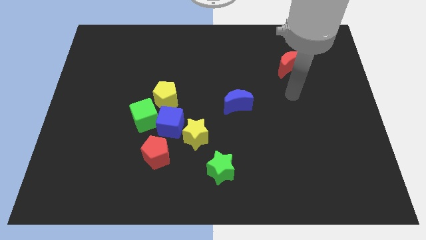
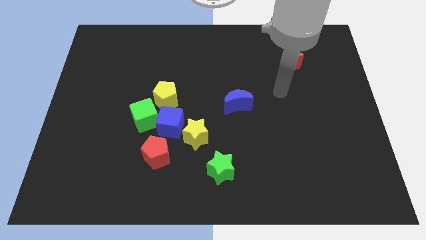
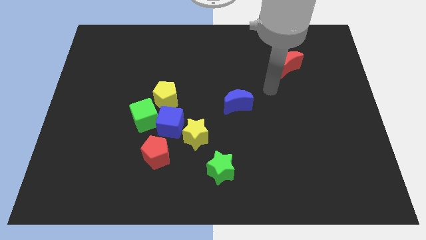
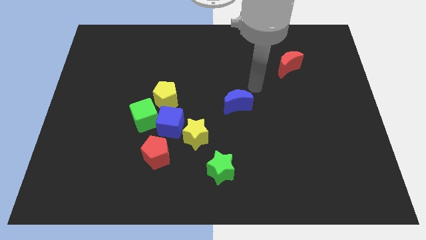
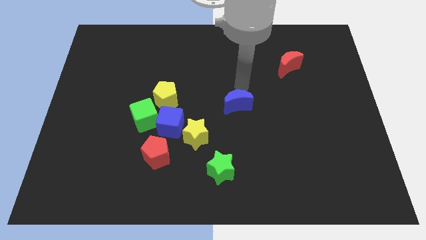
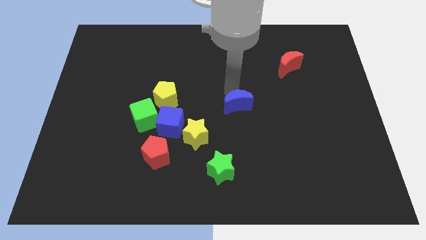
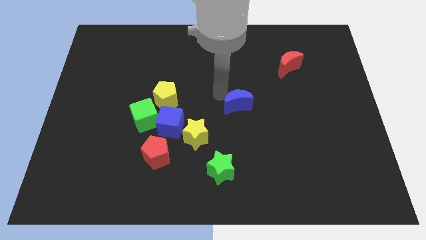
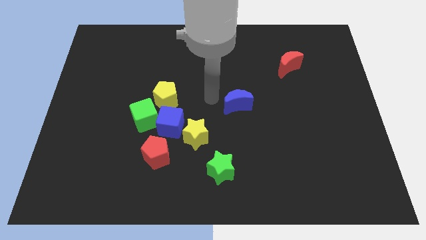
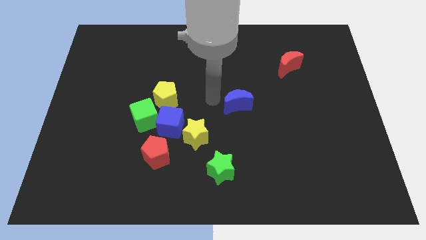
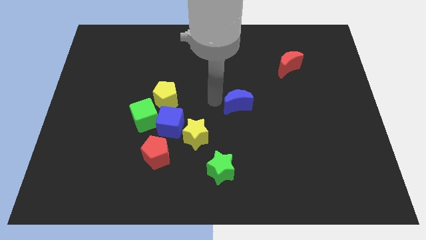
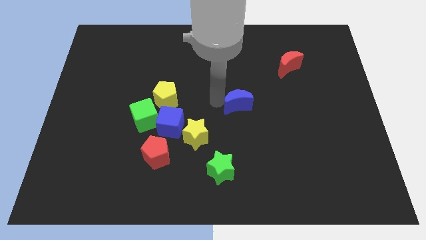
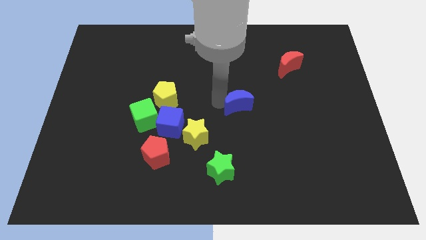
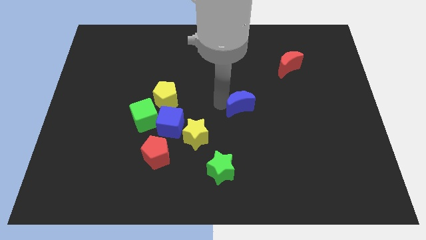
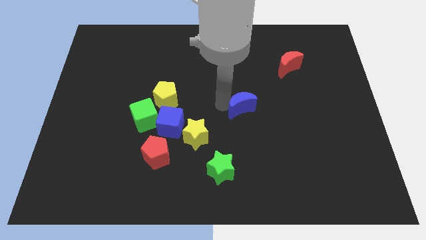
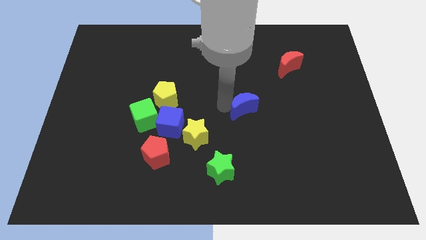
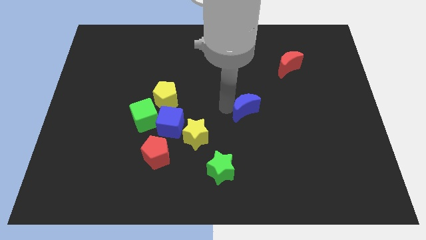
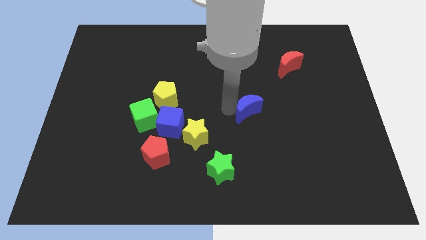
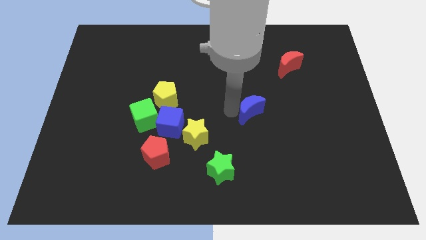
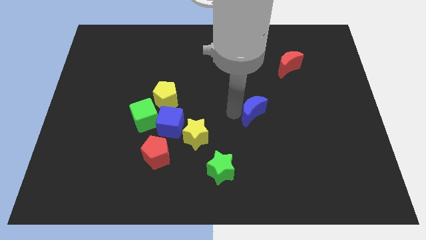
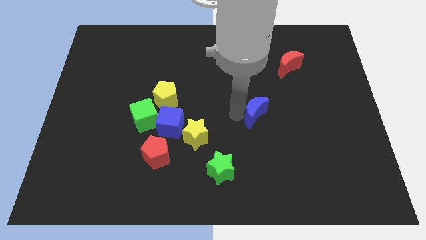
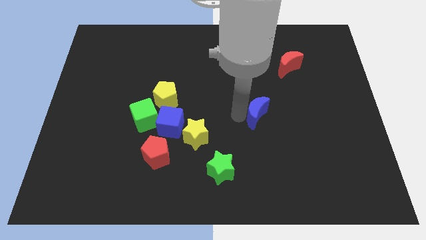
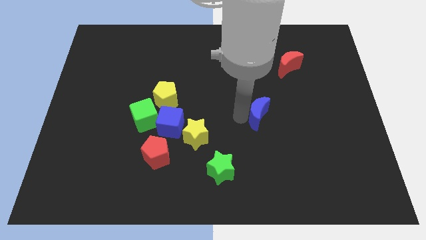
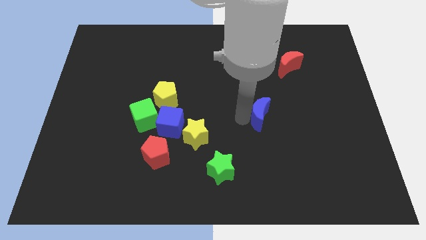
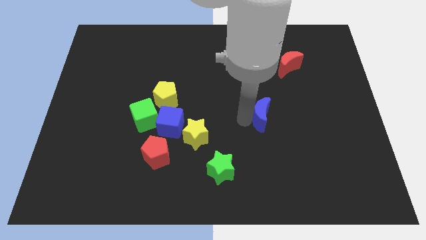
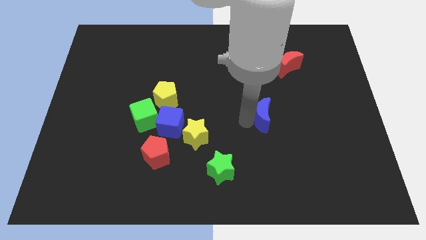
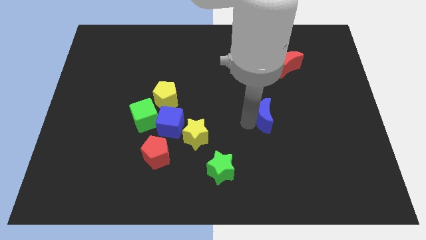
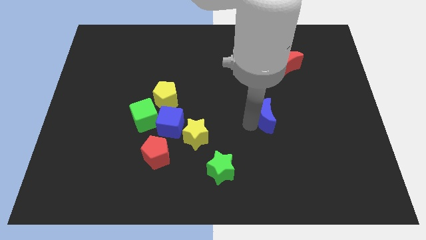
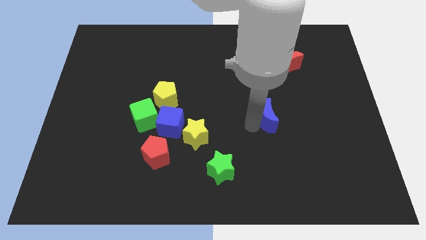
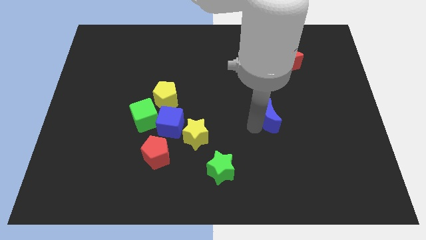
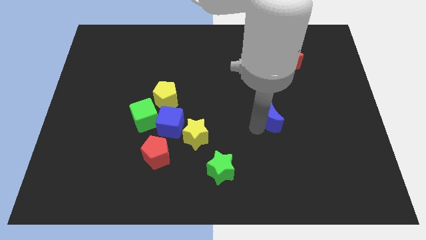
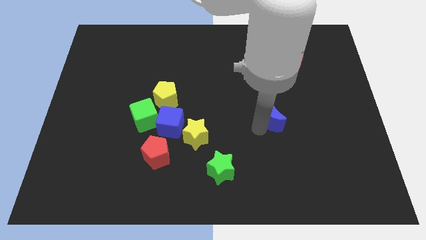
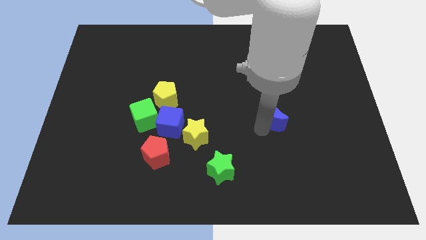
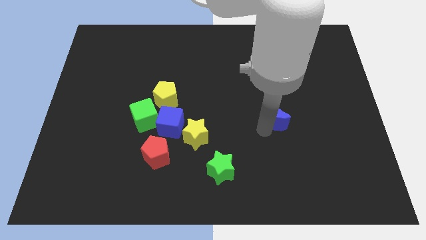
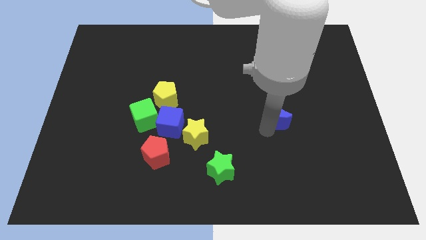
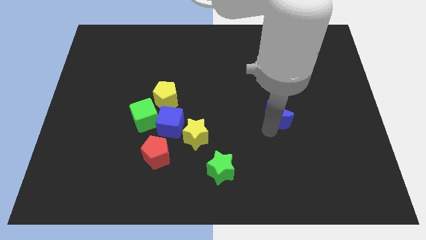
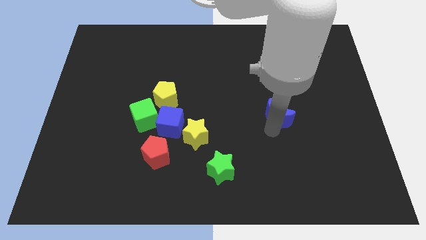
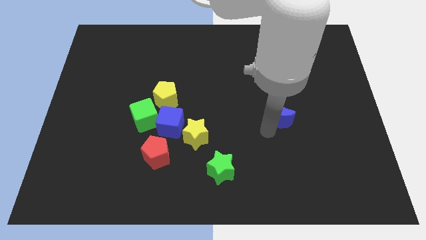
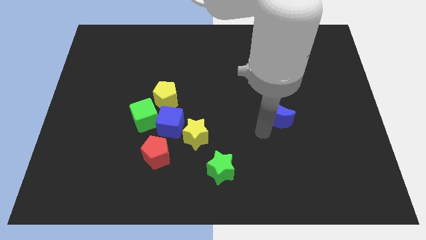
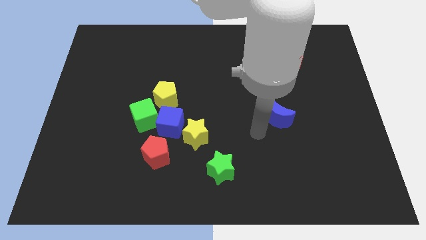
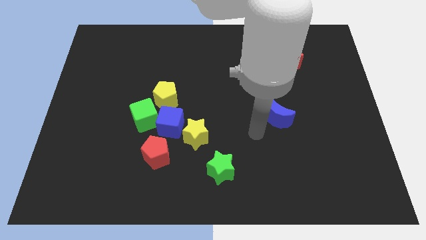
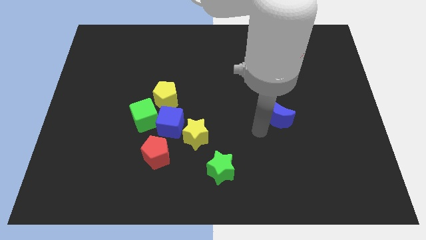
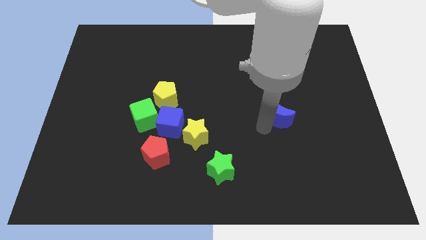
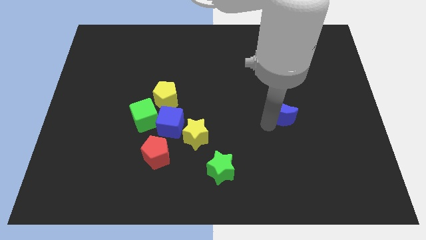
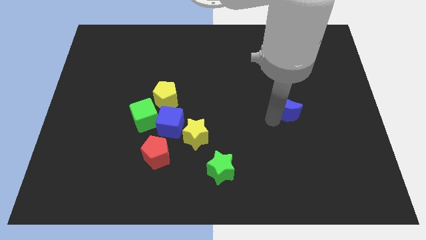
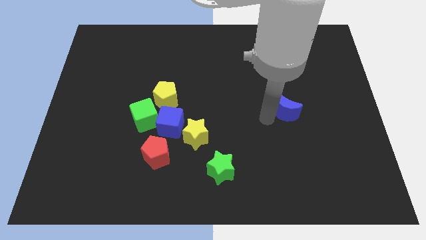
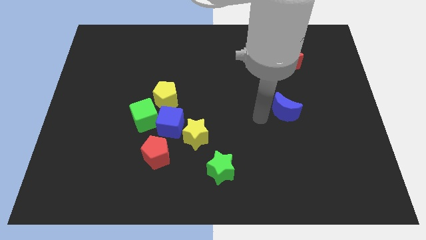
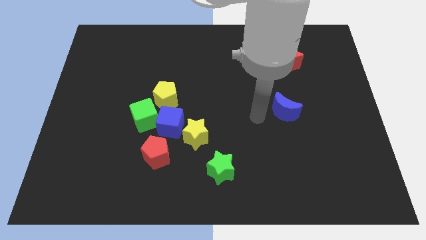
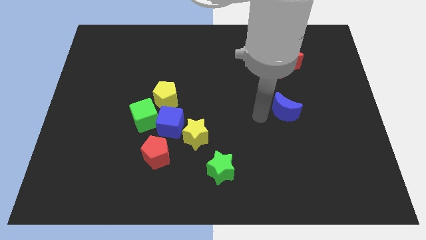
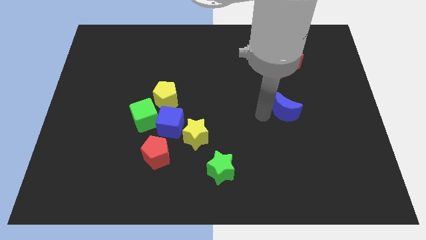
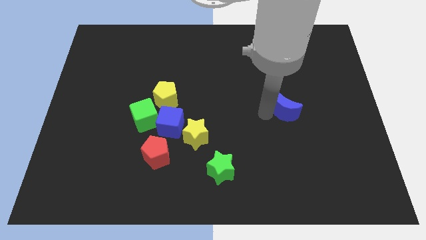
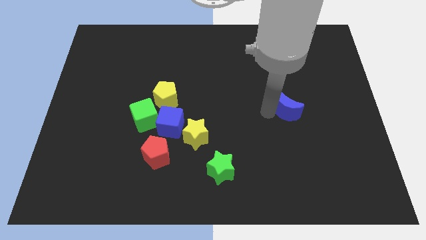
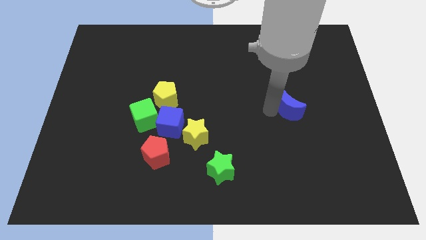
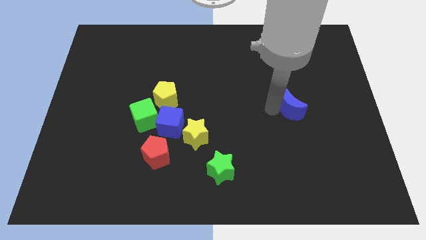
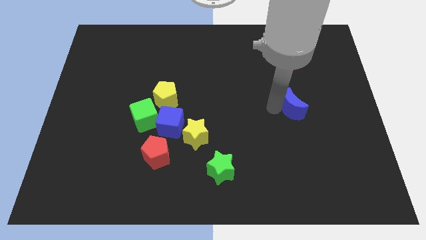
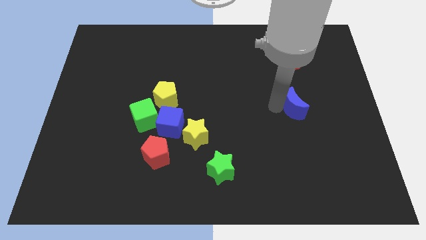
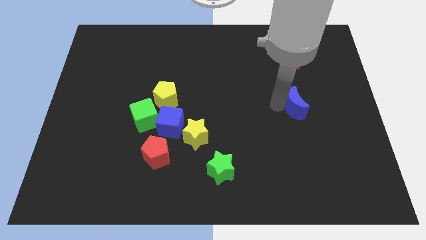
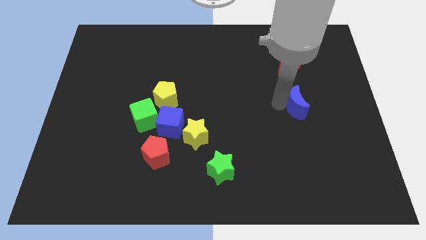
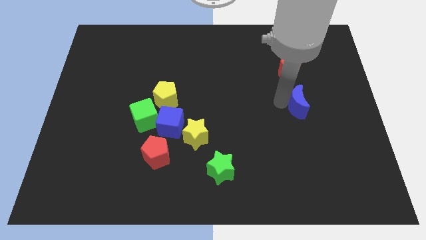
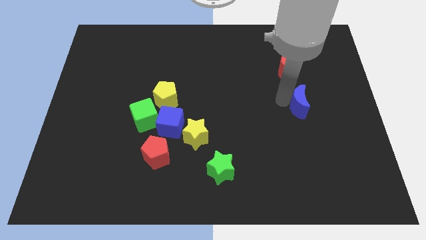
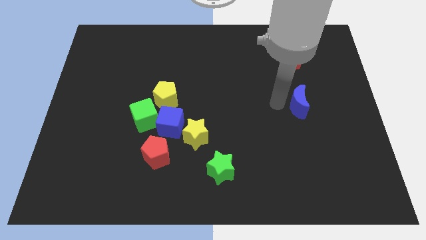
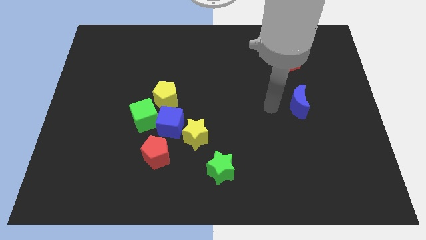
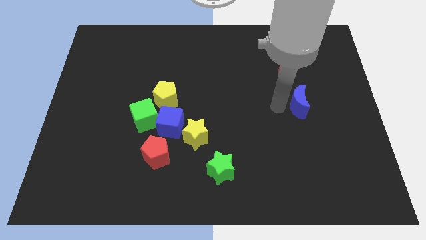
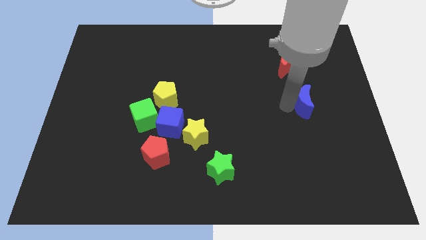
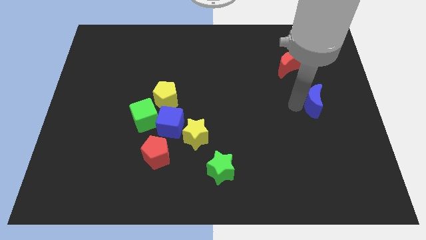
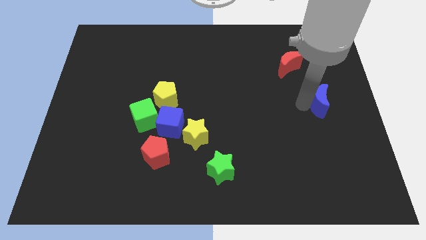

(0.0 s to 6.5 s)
push the blue moon to the right side of the board
